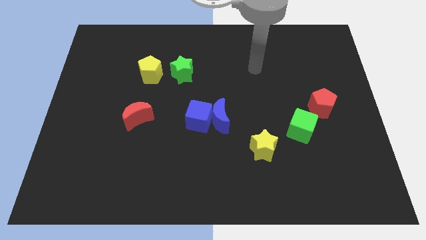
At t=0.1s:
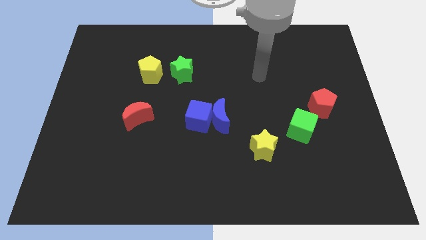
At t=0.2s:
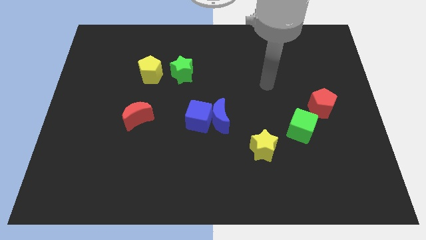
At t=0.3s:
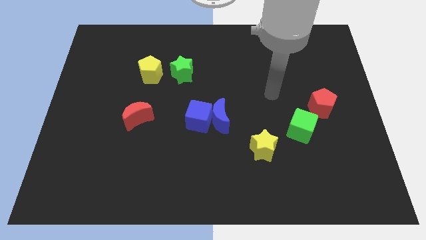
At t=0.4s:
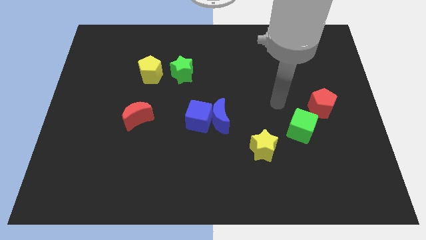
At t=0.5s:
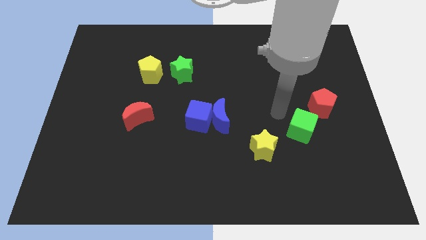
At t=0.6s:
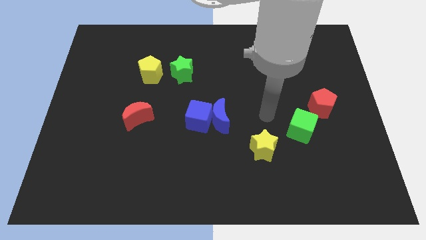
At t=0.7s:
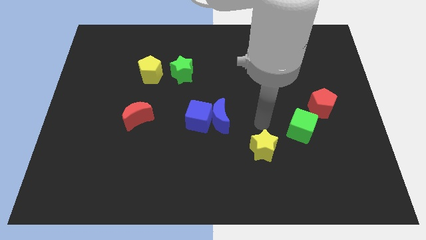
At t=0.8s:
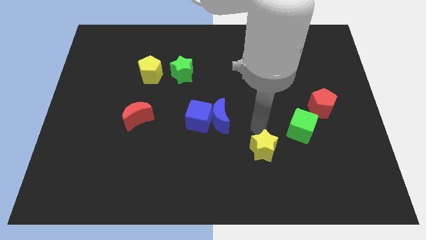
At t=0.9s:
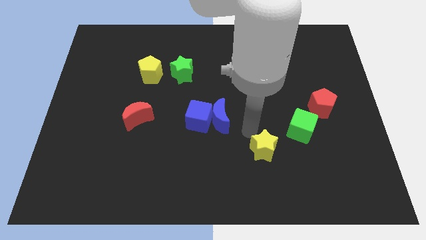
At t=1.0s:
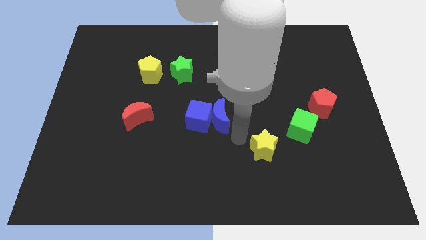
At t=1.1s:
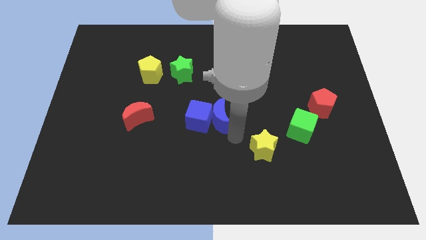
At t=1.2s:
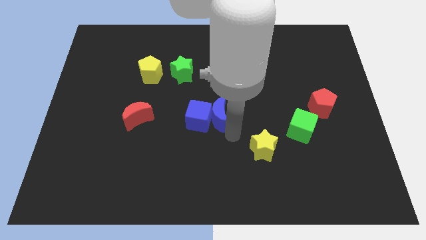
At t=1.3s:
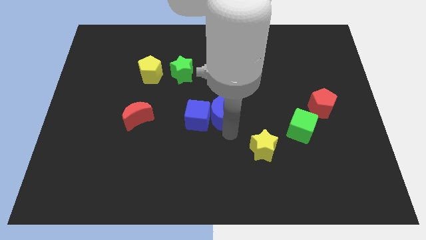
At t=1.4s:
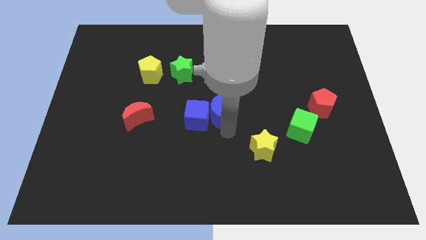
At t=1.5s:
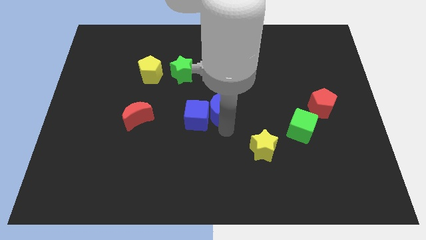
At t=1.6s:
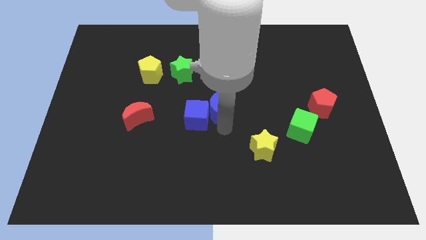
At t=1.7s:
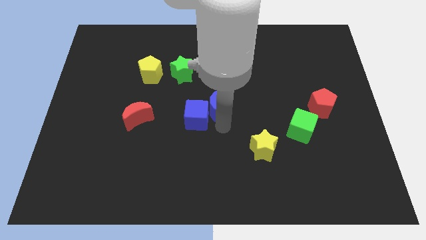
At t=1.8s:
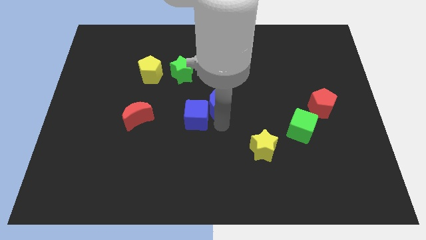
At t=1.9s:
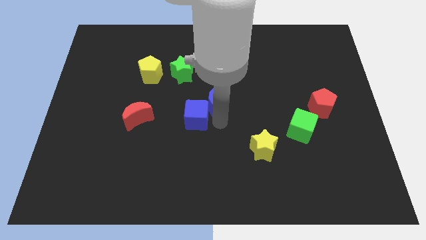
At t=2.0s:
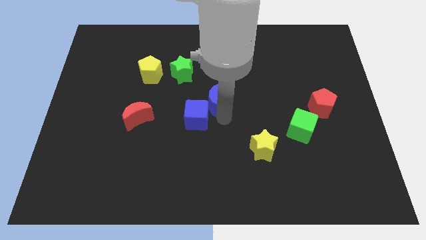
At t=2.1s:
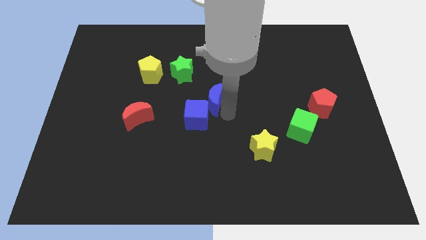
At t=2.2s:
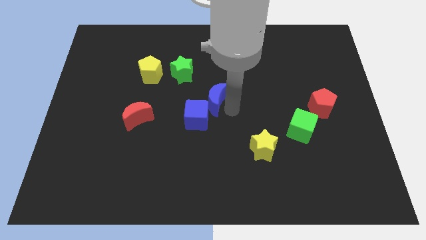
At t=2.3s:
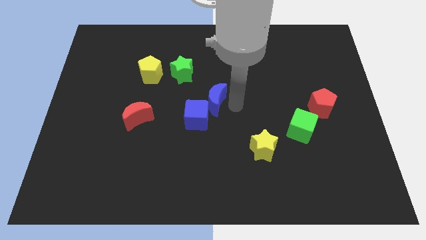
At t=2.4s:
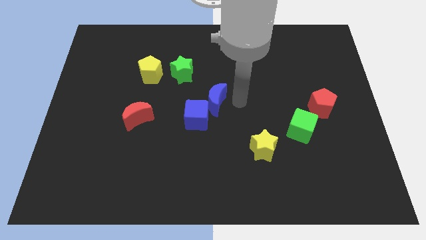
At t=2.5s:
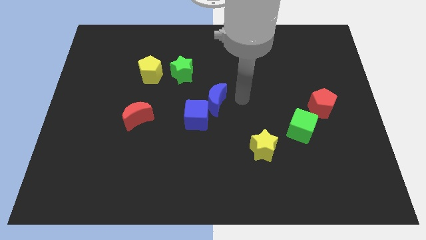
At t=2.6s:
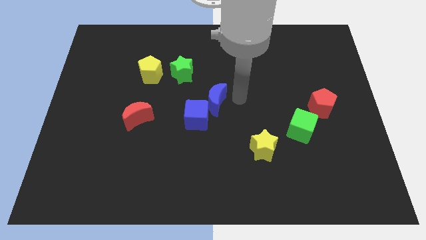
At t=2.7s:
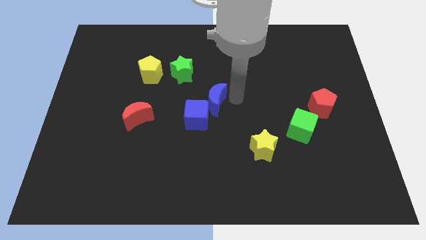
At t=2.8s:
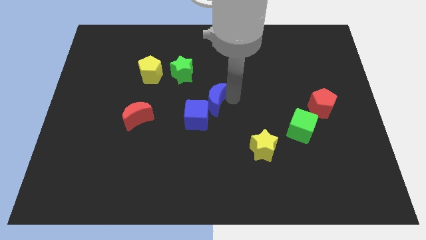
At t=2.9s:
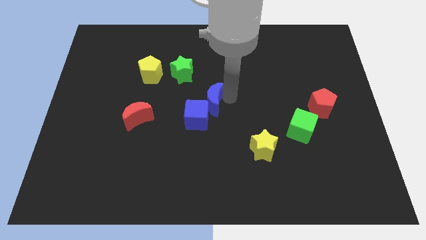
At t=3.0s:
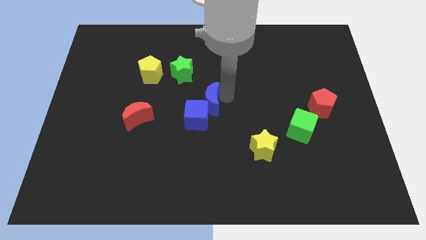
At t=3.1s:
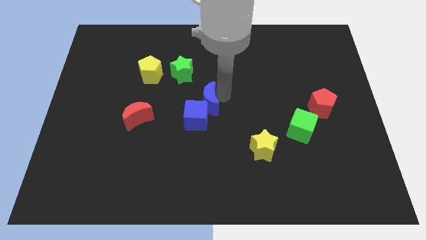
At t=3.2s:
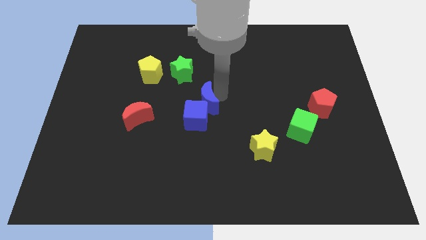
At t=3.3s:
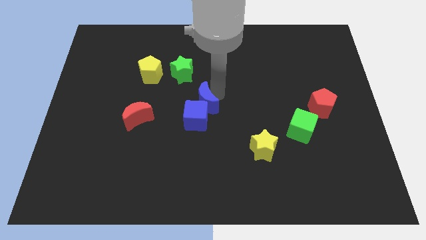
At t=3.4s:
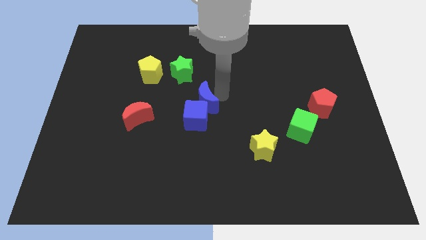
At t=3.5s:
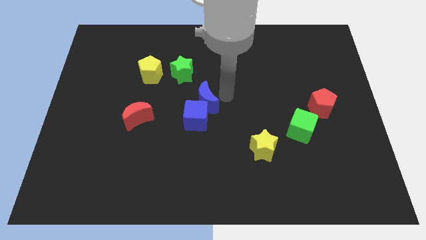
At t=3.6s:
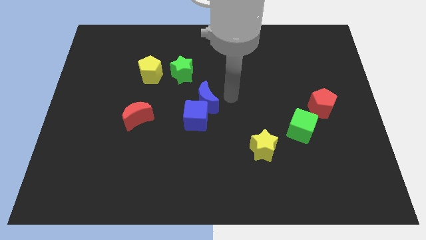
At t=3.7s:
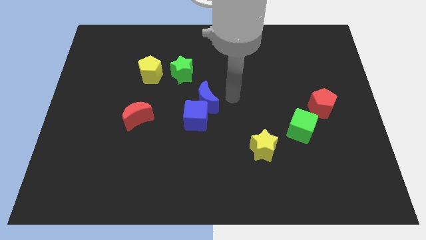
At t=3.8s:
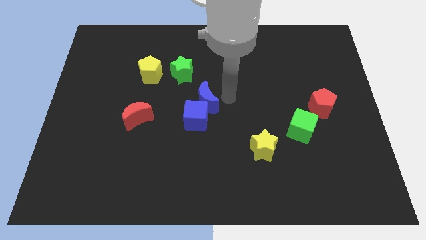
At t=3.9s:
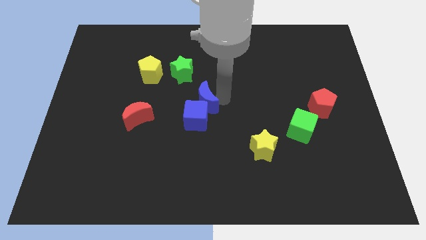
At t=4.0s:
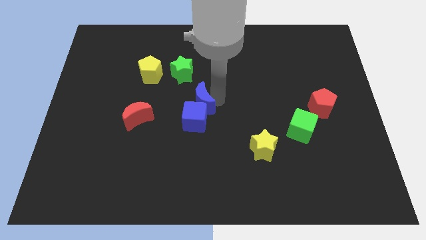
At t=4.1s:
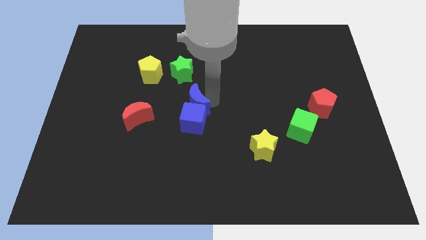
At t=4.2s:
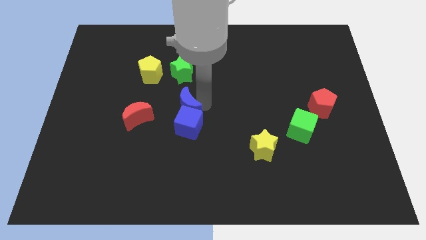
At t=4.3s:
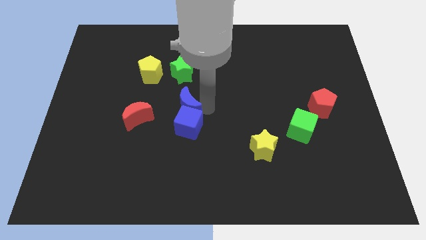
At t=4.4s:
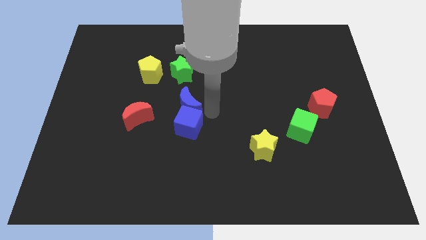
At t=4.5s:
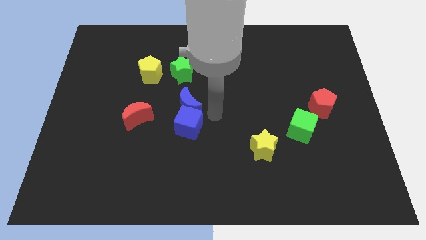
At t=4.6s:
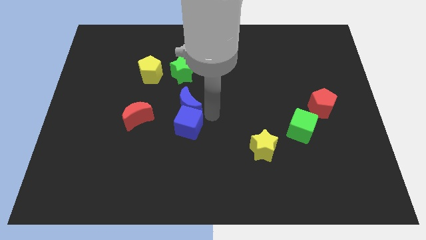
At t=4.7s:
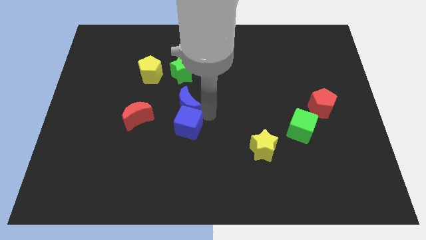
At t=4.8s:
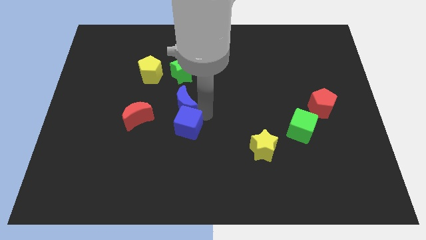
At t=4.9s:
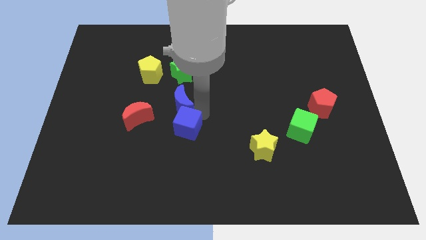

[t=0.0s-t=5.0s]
move the blue moon to the top right side of the red moon
